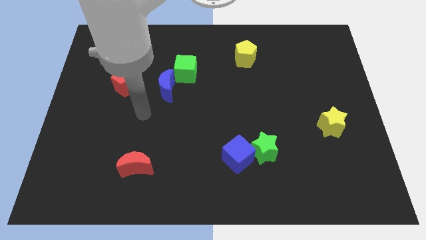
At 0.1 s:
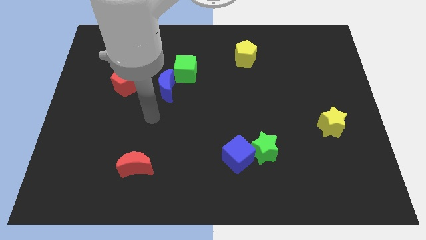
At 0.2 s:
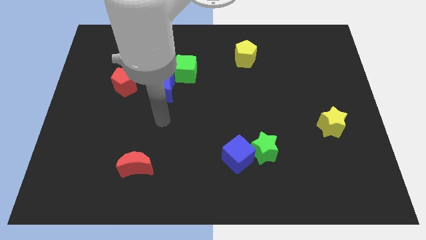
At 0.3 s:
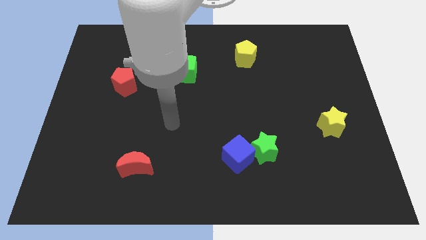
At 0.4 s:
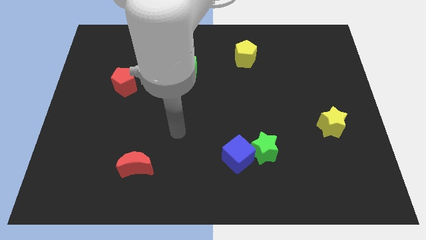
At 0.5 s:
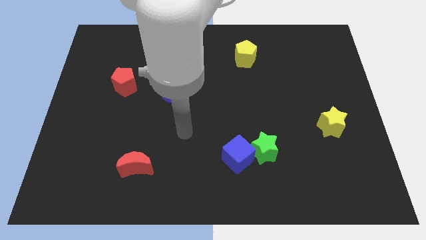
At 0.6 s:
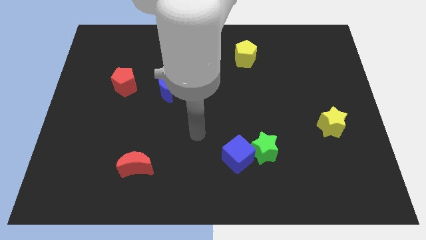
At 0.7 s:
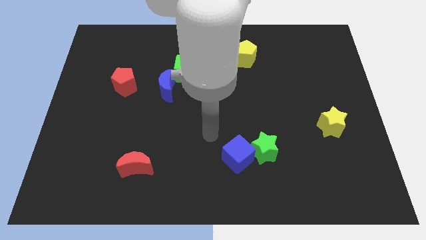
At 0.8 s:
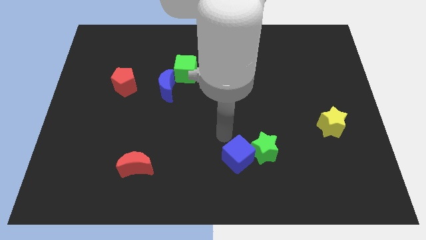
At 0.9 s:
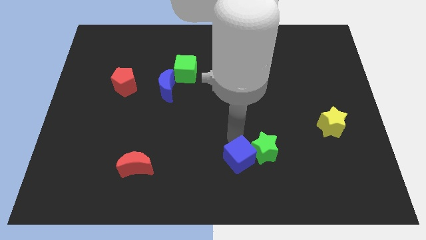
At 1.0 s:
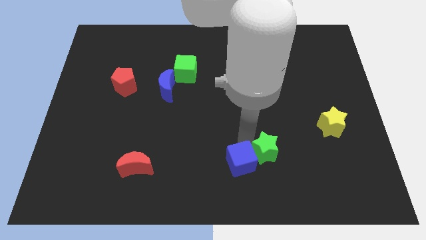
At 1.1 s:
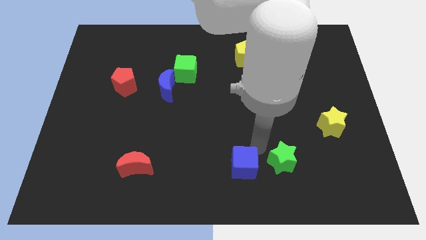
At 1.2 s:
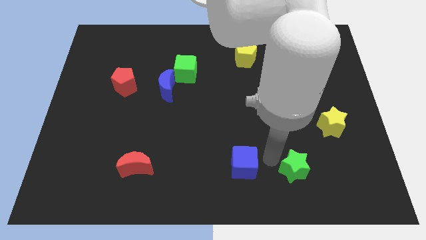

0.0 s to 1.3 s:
pull the blue cube apart from the green star

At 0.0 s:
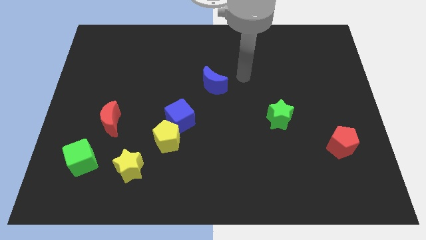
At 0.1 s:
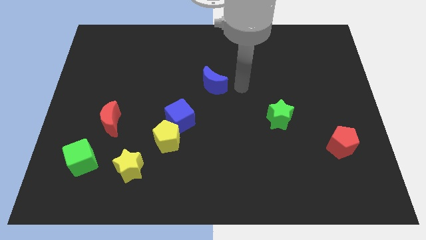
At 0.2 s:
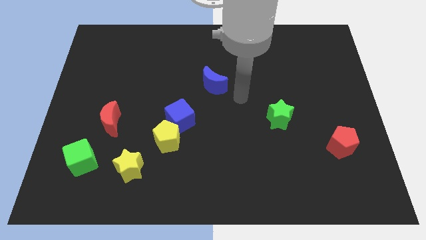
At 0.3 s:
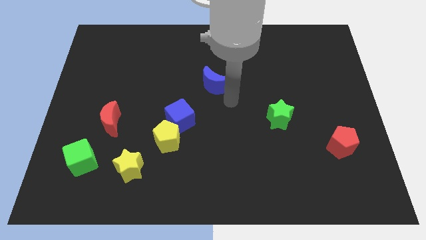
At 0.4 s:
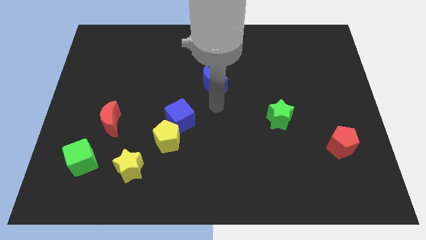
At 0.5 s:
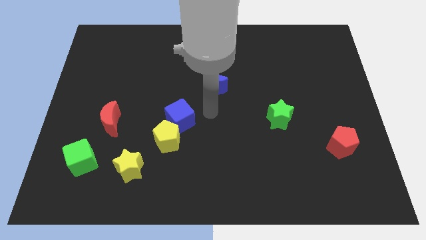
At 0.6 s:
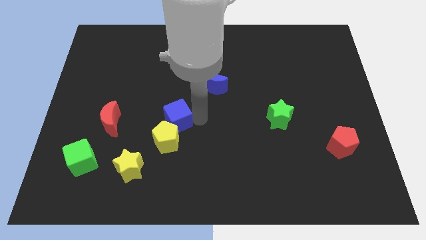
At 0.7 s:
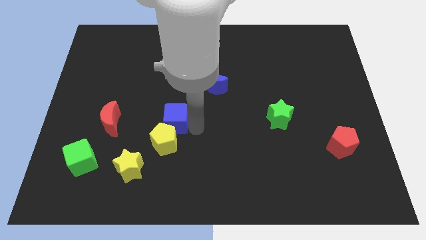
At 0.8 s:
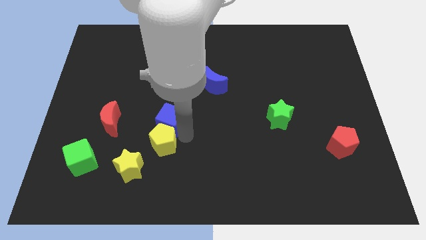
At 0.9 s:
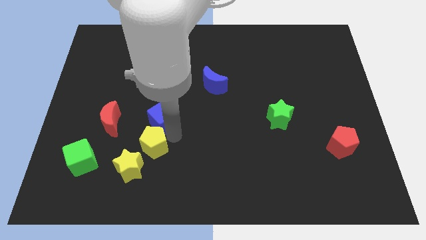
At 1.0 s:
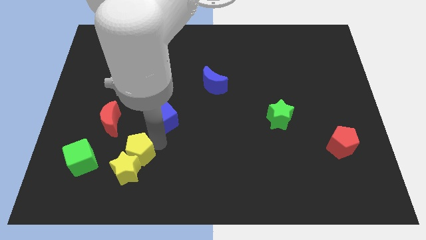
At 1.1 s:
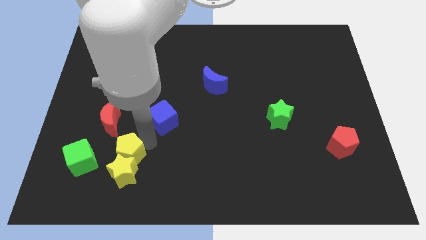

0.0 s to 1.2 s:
separate the blue cube from the yellow pentagon

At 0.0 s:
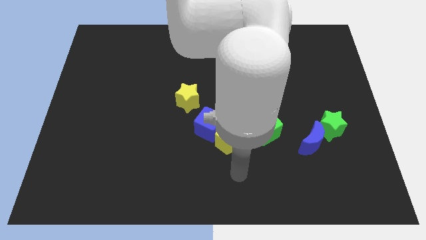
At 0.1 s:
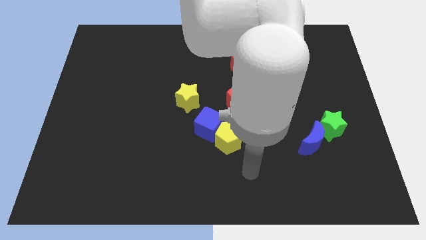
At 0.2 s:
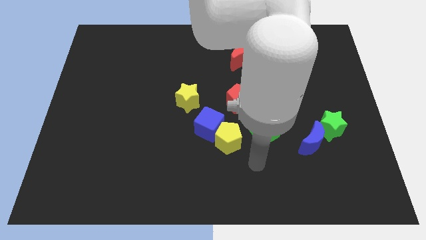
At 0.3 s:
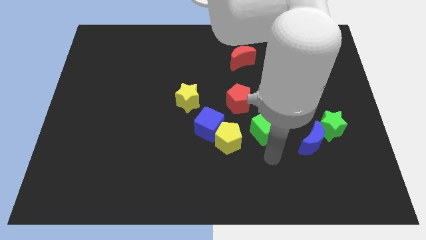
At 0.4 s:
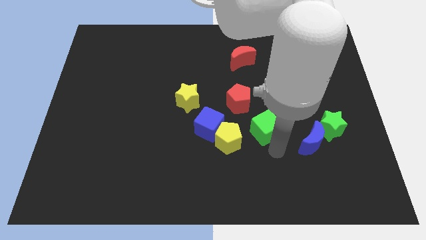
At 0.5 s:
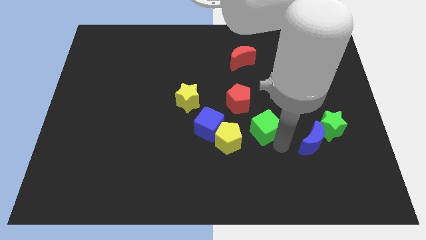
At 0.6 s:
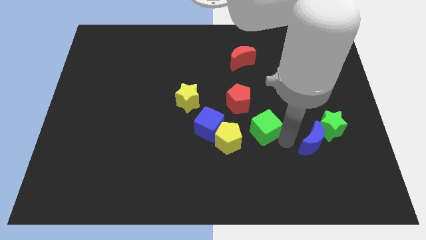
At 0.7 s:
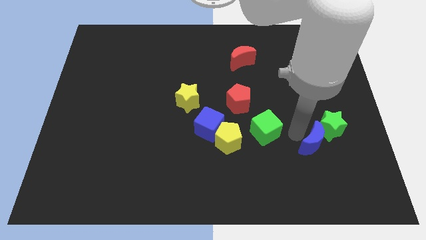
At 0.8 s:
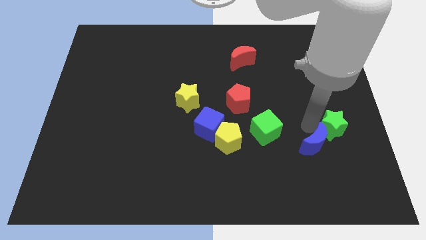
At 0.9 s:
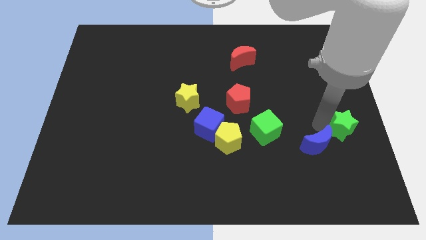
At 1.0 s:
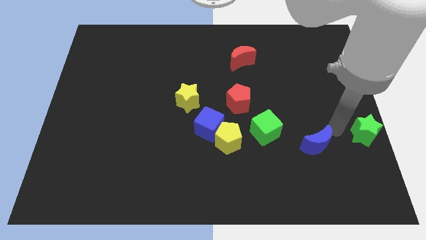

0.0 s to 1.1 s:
pull the blue moon apart from the green star

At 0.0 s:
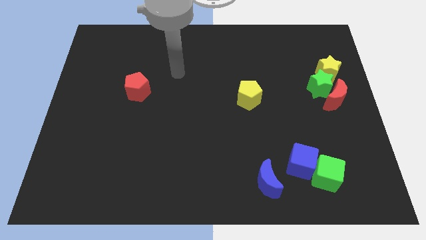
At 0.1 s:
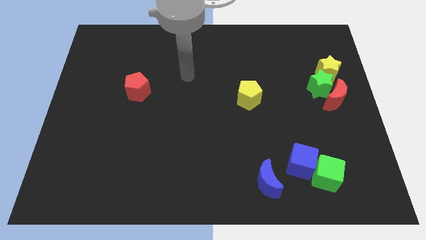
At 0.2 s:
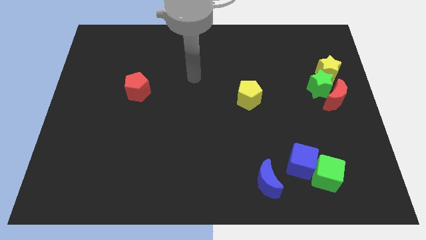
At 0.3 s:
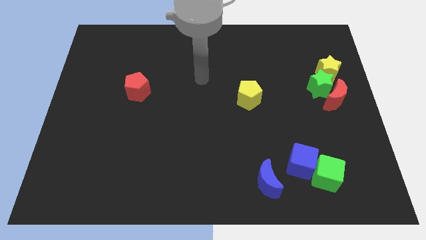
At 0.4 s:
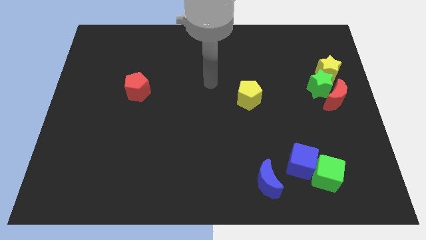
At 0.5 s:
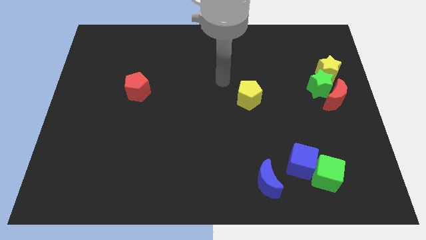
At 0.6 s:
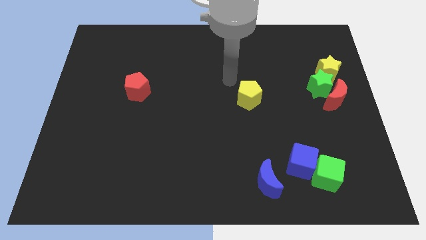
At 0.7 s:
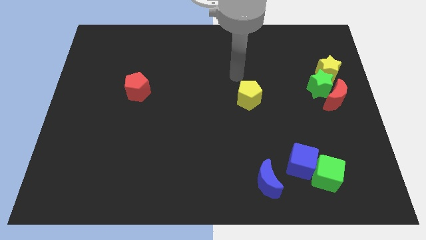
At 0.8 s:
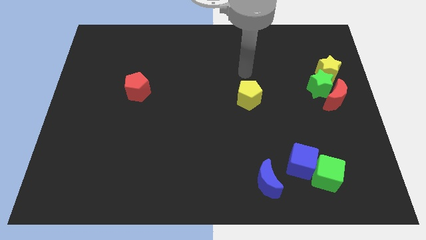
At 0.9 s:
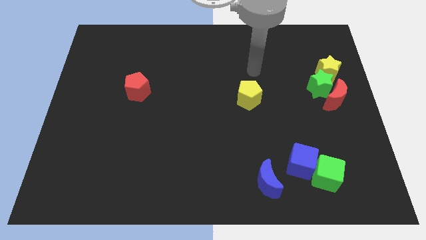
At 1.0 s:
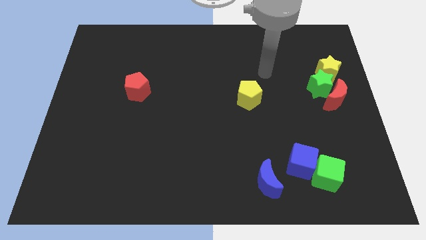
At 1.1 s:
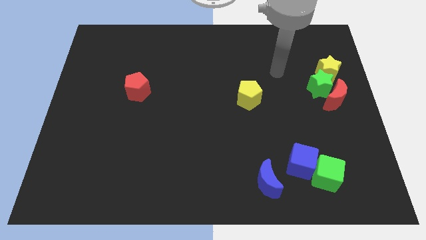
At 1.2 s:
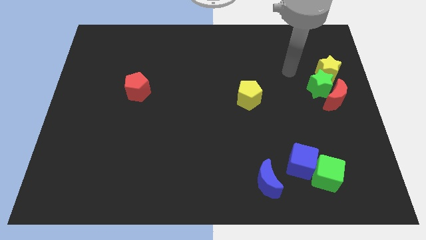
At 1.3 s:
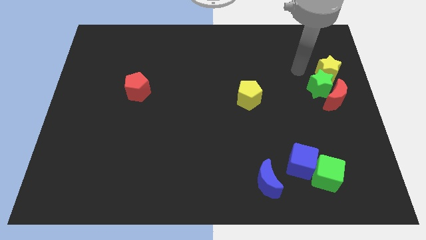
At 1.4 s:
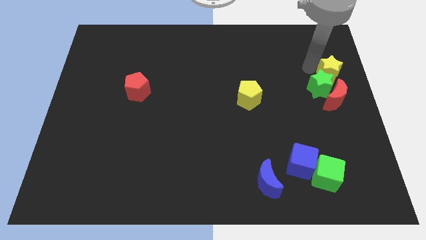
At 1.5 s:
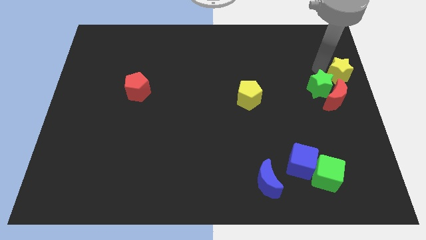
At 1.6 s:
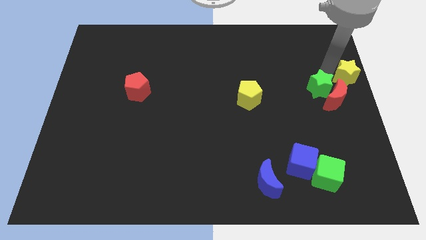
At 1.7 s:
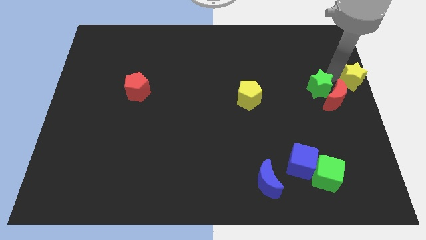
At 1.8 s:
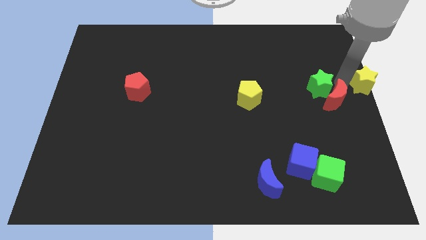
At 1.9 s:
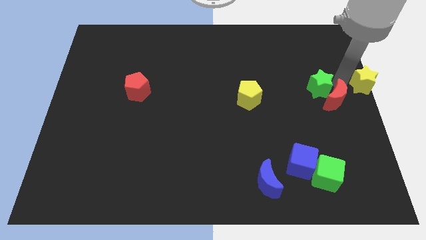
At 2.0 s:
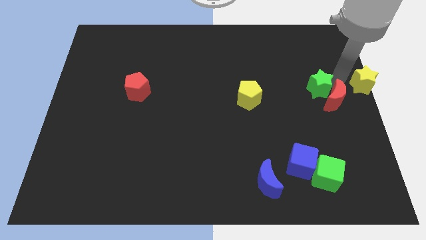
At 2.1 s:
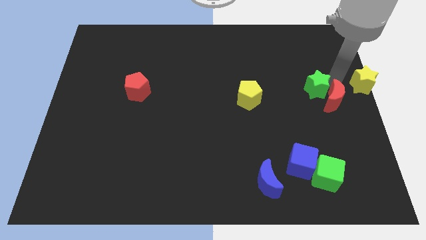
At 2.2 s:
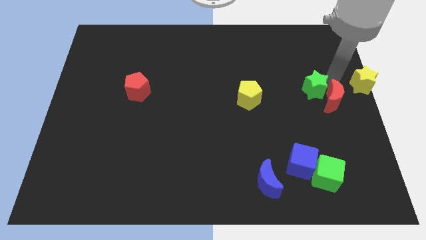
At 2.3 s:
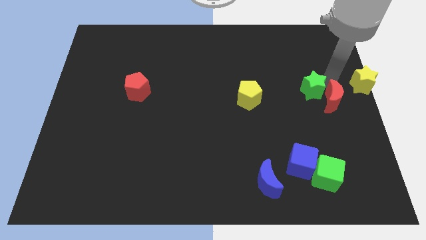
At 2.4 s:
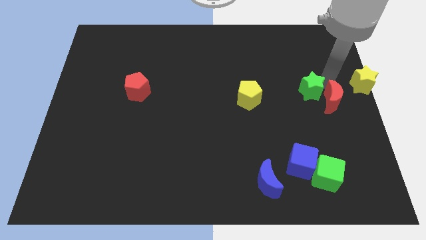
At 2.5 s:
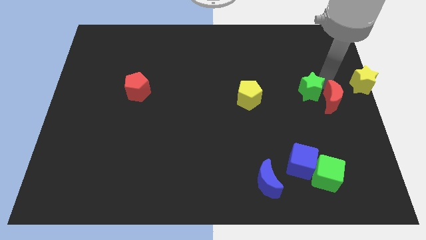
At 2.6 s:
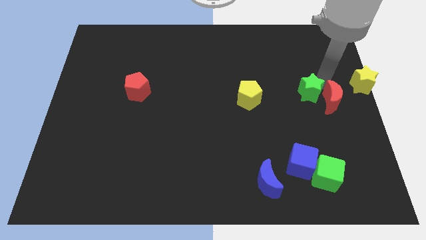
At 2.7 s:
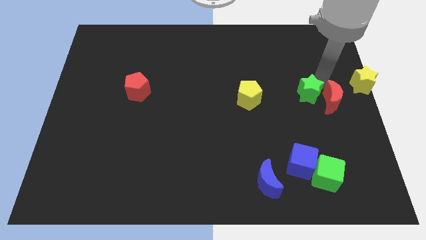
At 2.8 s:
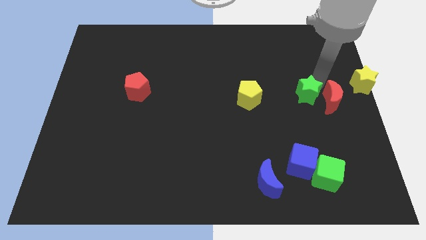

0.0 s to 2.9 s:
separate the green star from the red moon and yellow star

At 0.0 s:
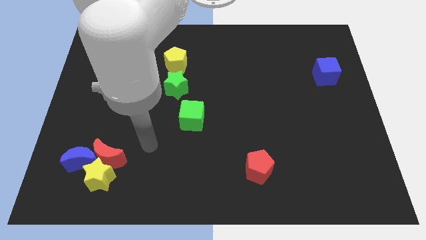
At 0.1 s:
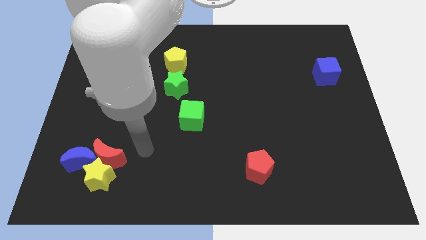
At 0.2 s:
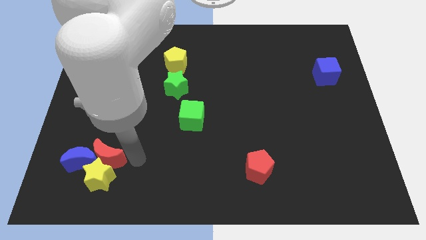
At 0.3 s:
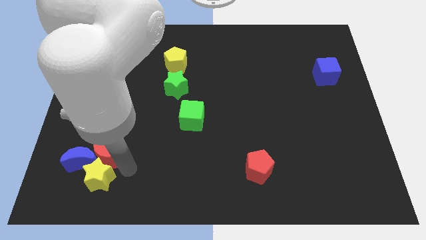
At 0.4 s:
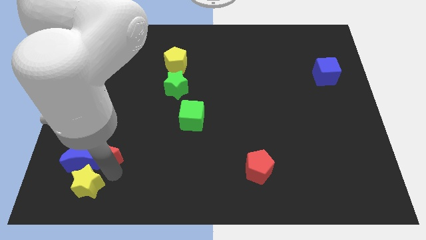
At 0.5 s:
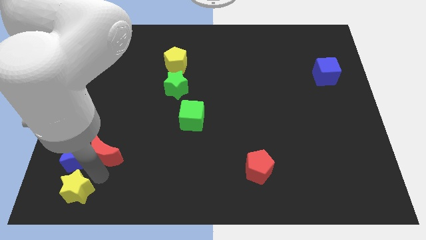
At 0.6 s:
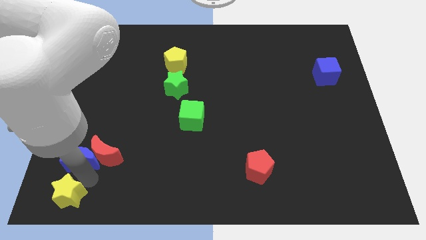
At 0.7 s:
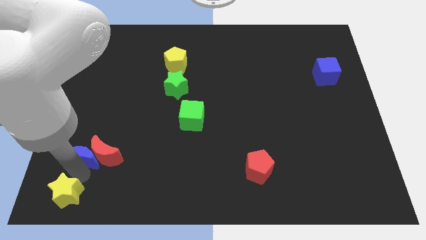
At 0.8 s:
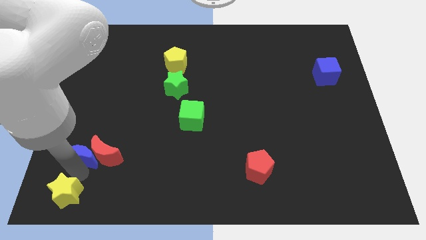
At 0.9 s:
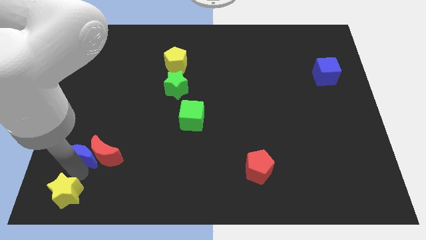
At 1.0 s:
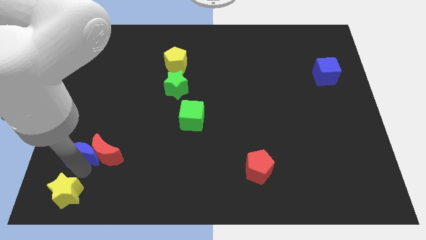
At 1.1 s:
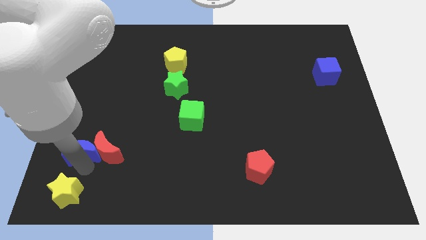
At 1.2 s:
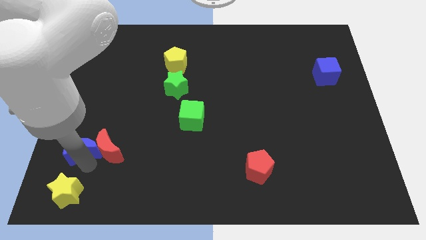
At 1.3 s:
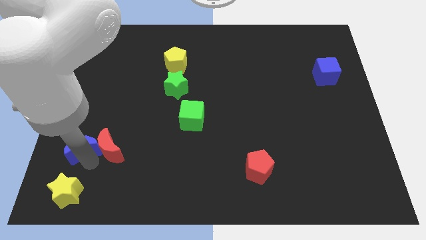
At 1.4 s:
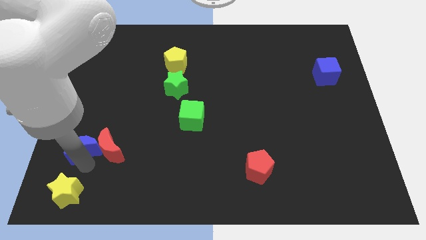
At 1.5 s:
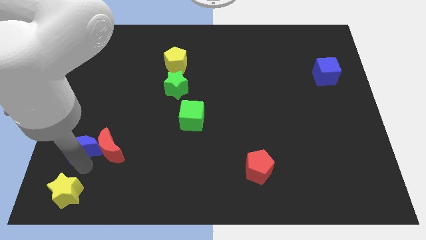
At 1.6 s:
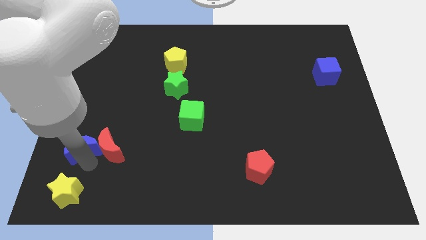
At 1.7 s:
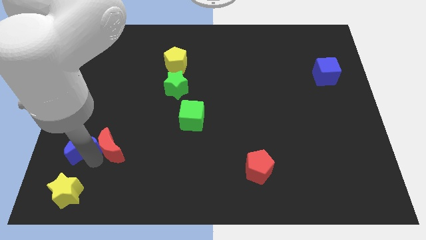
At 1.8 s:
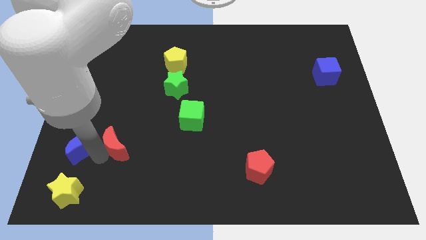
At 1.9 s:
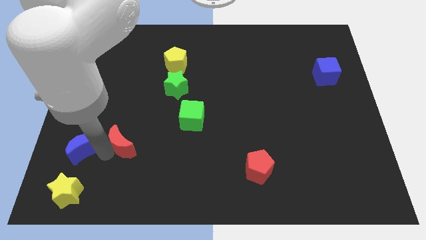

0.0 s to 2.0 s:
separate the red moon from the yellow star and blue moon

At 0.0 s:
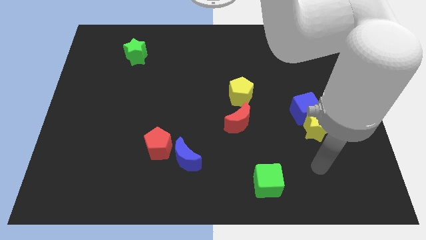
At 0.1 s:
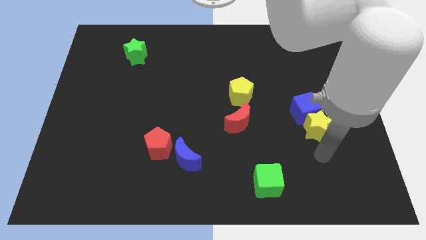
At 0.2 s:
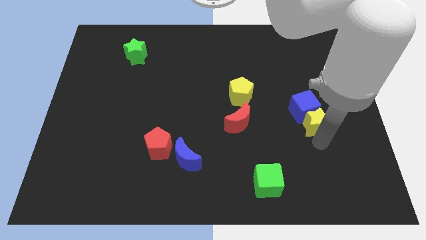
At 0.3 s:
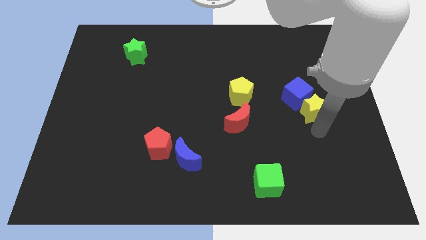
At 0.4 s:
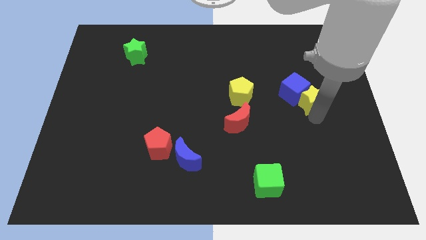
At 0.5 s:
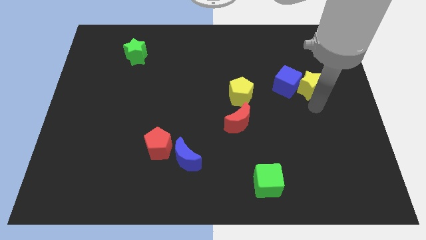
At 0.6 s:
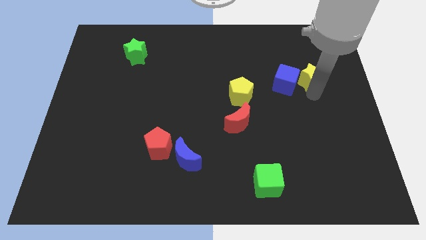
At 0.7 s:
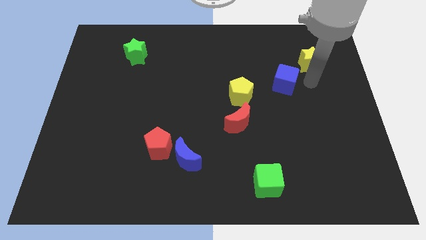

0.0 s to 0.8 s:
move the blue cube away from the yellow star

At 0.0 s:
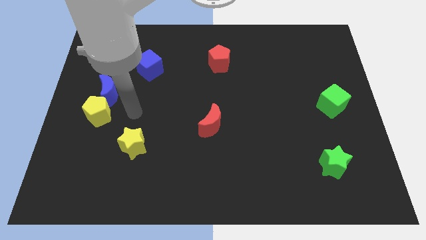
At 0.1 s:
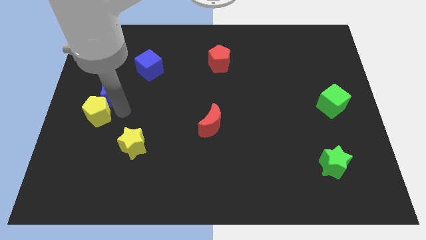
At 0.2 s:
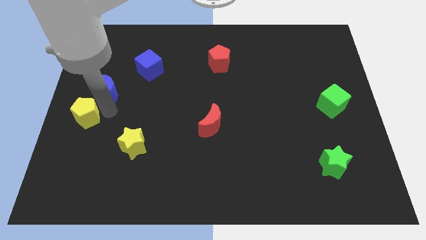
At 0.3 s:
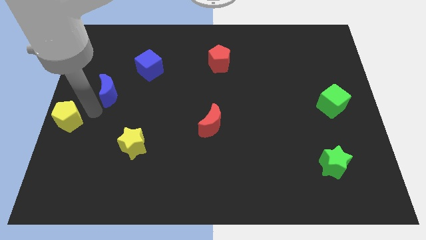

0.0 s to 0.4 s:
move the blue moon away from the yellow pentagon
